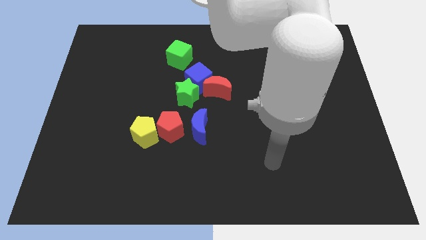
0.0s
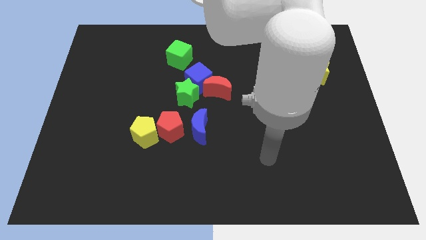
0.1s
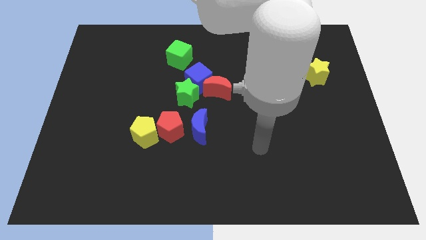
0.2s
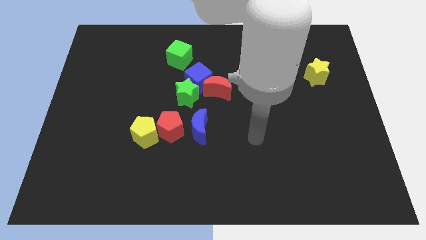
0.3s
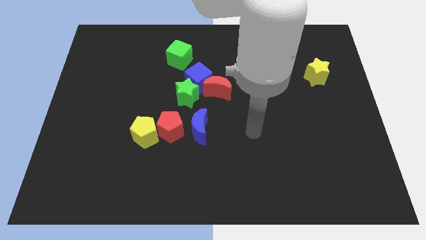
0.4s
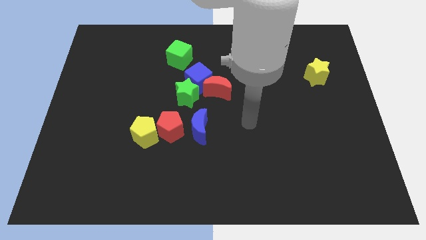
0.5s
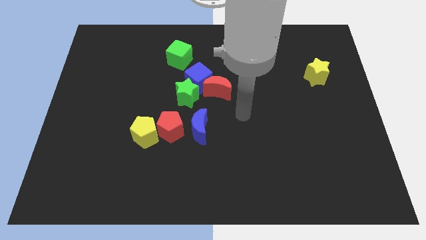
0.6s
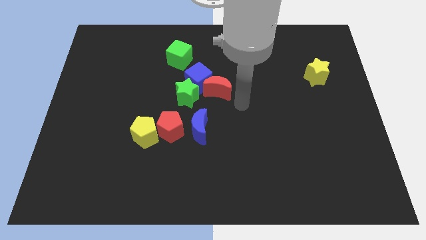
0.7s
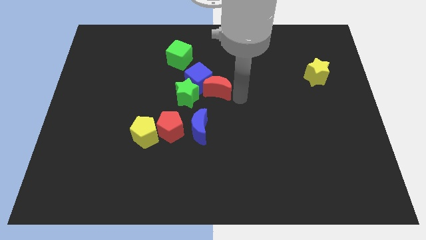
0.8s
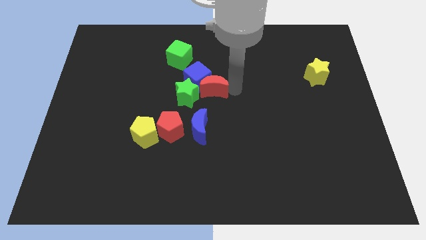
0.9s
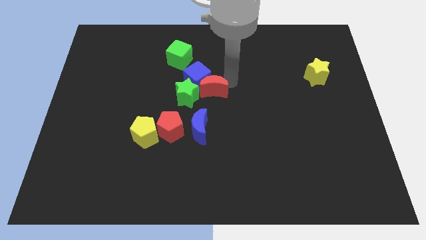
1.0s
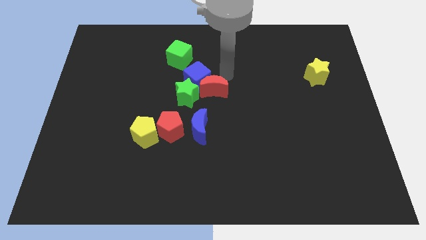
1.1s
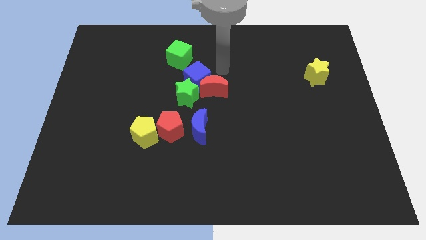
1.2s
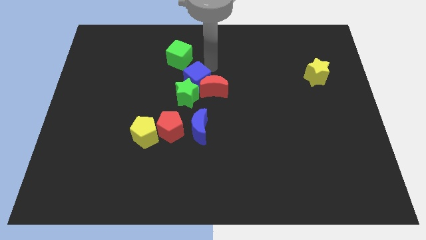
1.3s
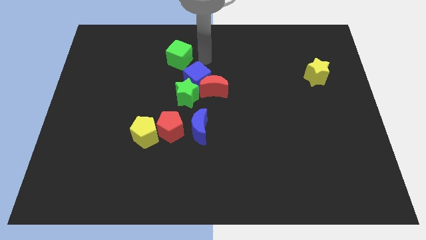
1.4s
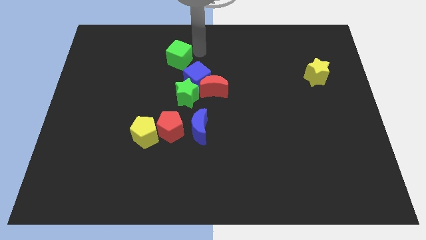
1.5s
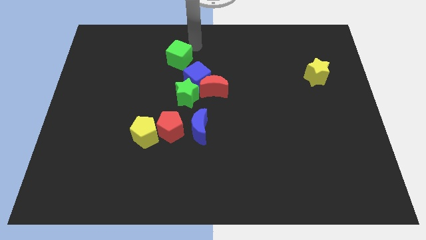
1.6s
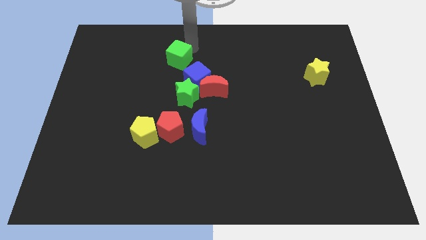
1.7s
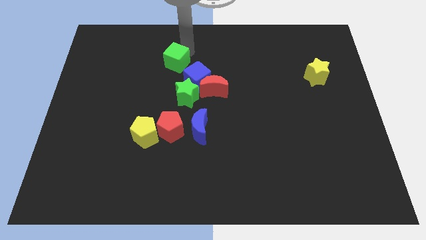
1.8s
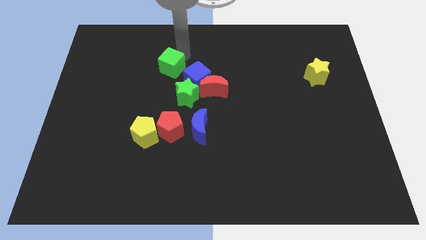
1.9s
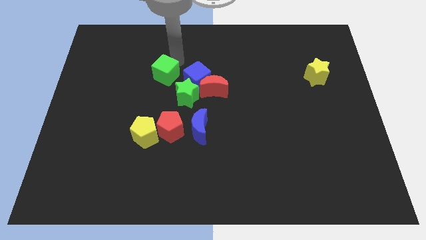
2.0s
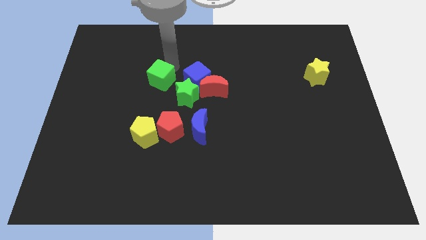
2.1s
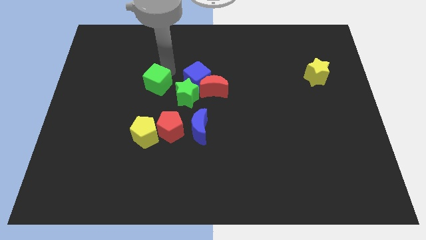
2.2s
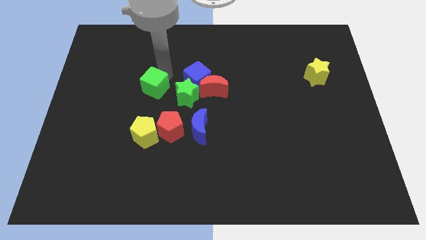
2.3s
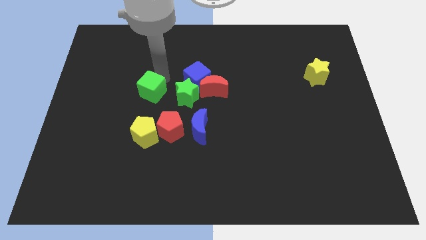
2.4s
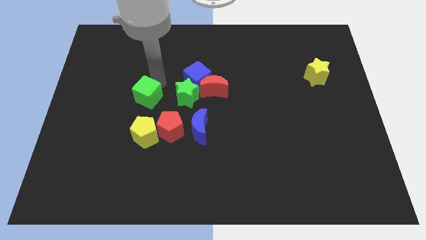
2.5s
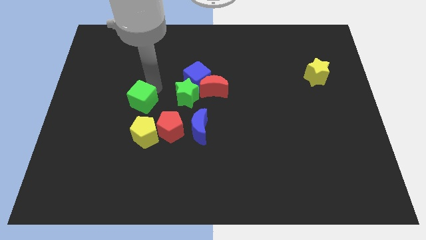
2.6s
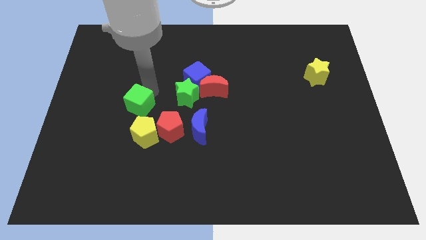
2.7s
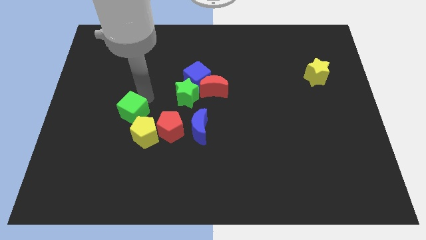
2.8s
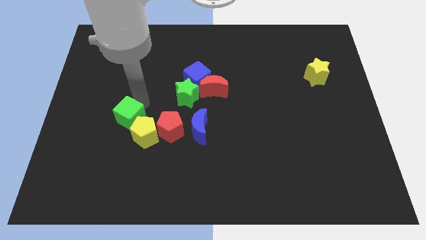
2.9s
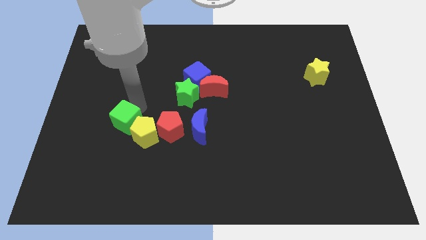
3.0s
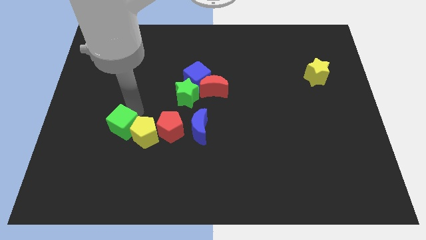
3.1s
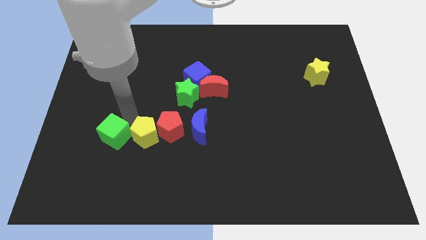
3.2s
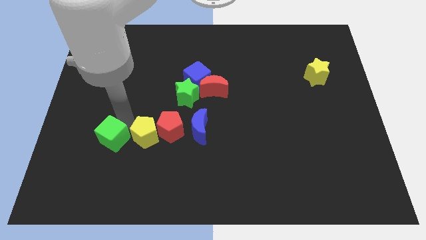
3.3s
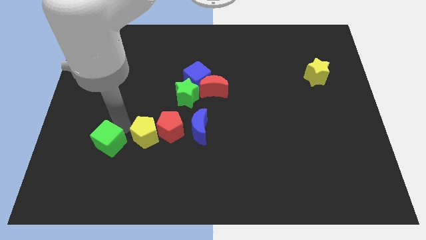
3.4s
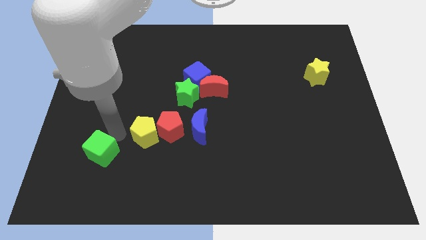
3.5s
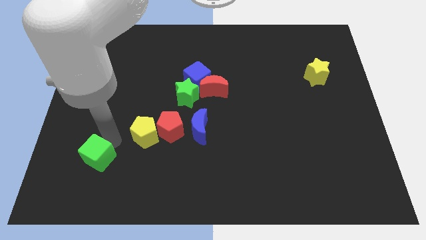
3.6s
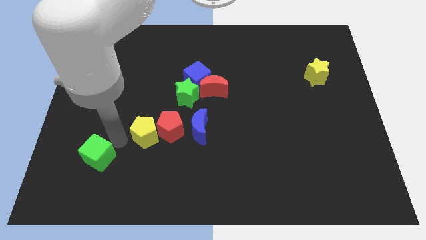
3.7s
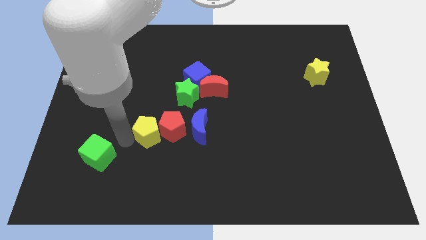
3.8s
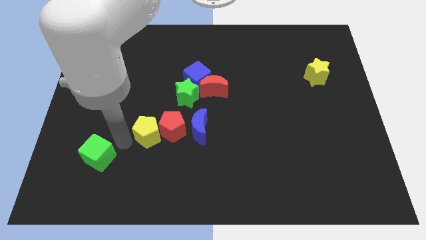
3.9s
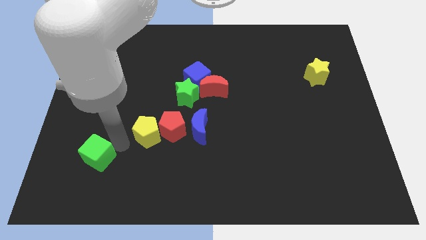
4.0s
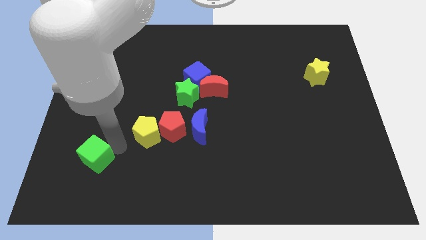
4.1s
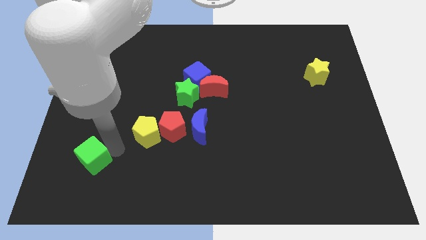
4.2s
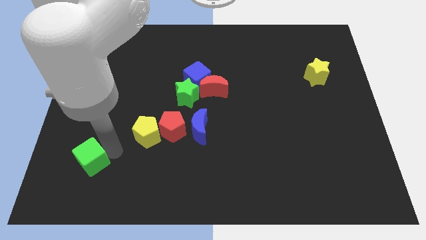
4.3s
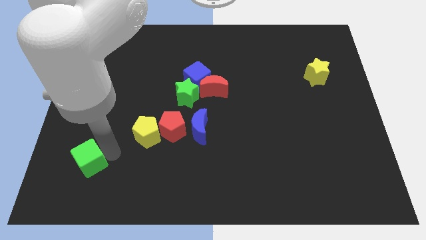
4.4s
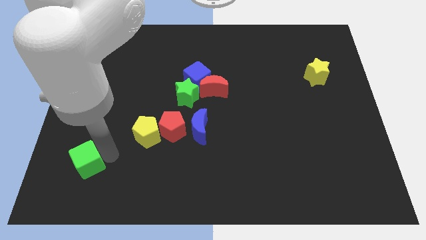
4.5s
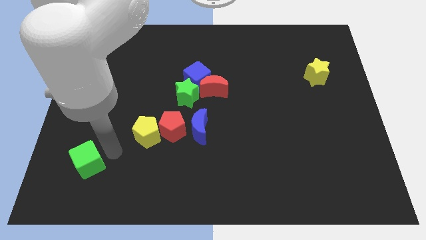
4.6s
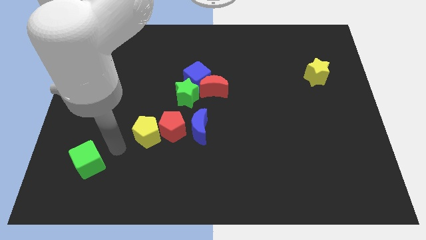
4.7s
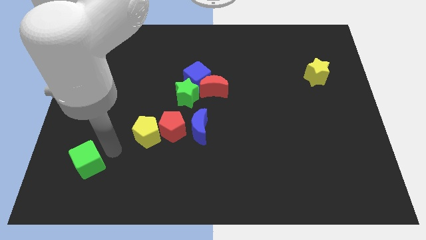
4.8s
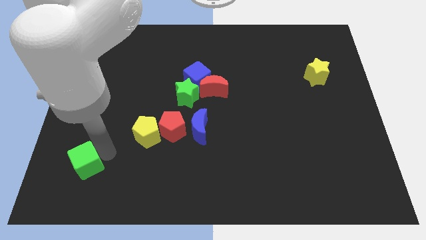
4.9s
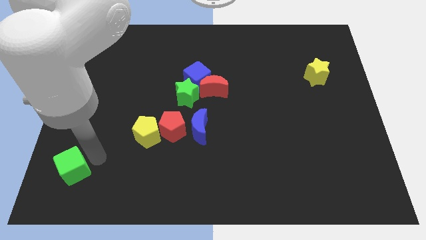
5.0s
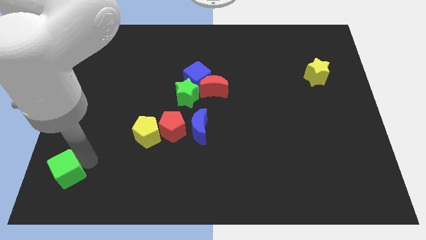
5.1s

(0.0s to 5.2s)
push the green cube to the bottom left of the board

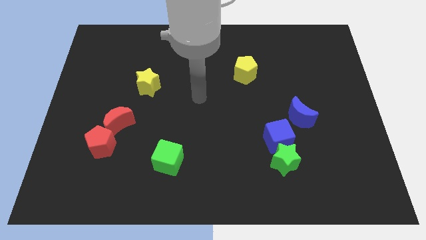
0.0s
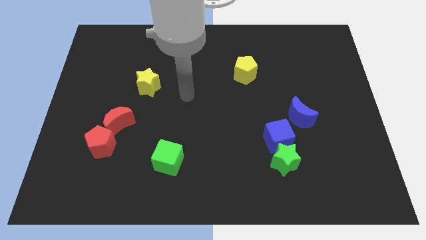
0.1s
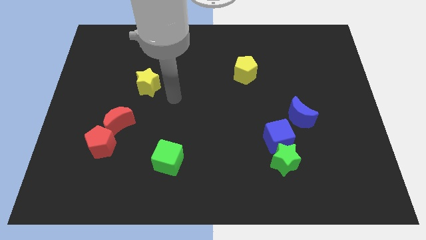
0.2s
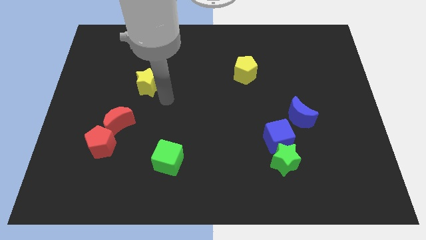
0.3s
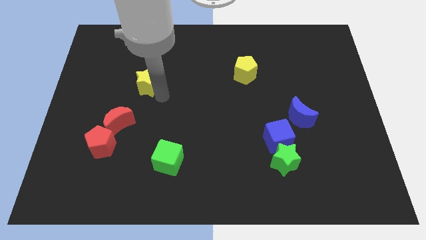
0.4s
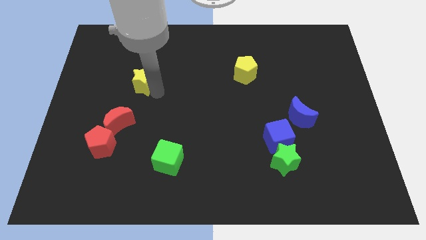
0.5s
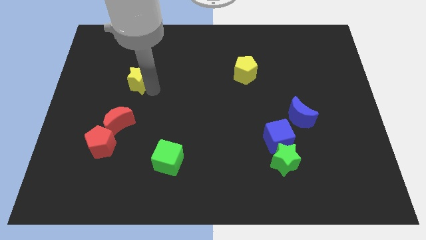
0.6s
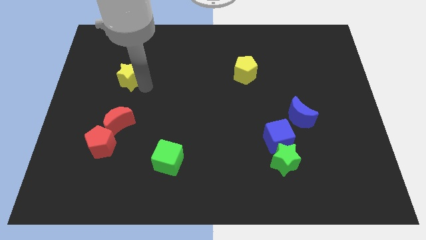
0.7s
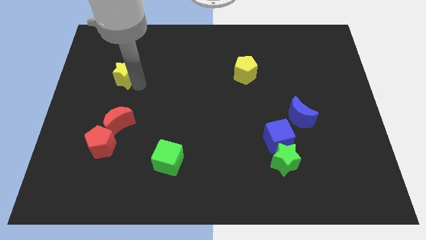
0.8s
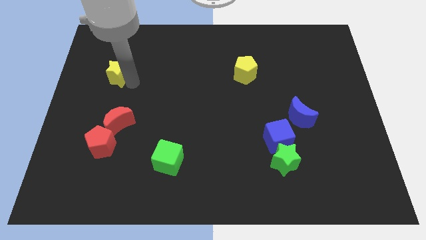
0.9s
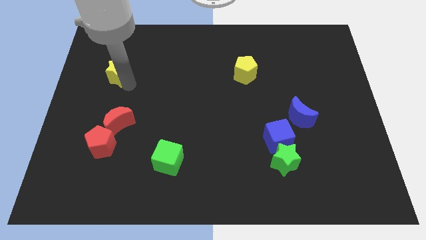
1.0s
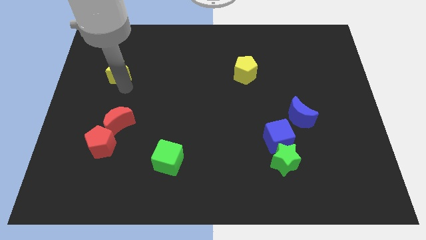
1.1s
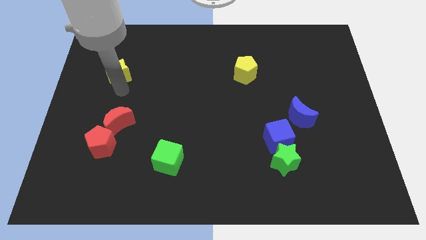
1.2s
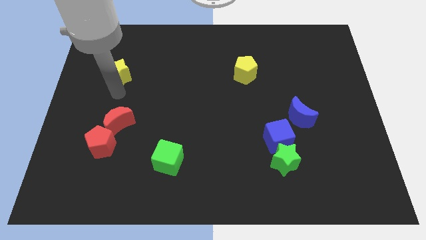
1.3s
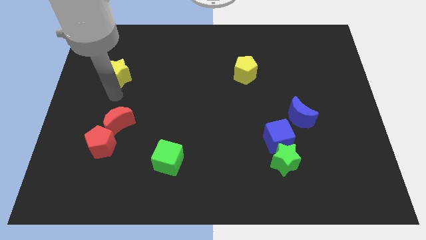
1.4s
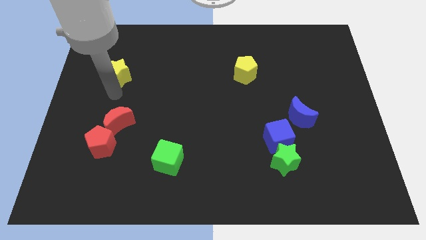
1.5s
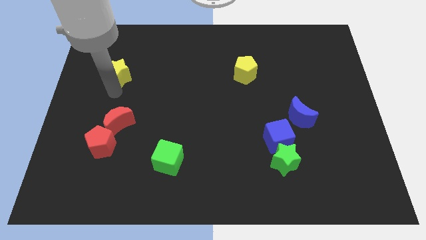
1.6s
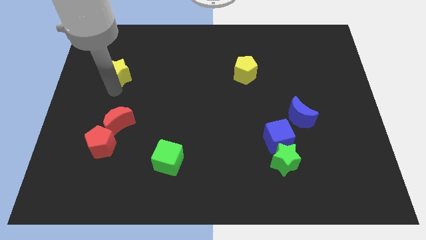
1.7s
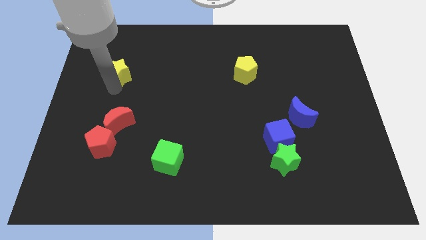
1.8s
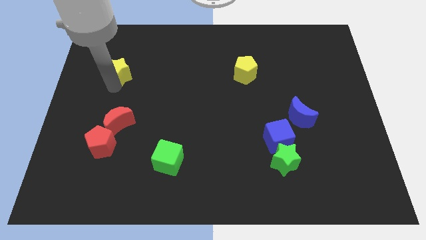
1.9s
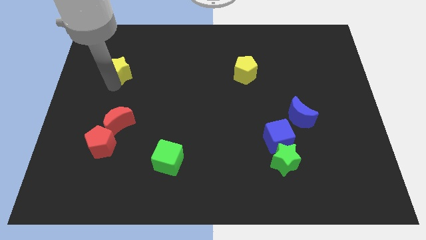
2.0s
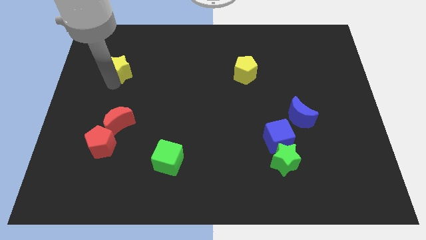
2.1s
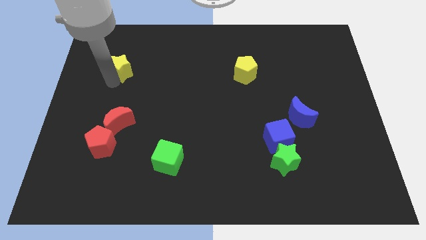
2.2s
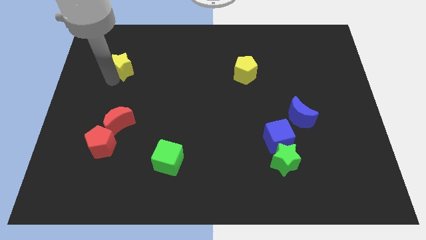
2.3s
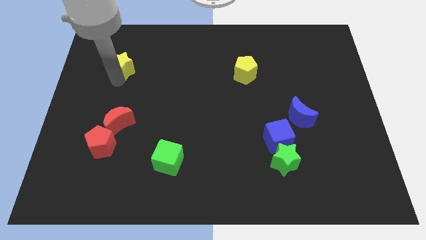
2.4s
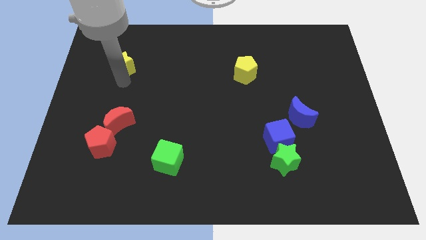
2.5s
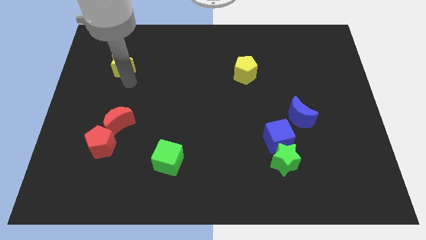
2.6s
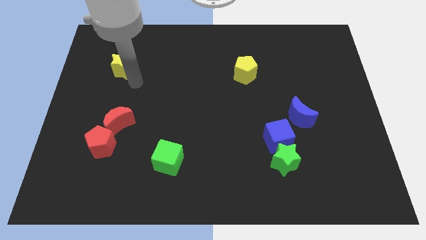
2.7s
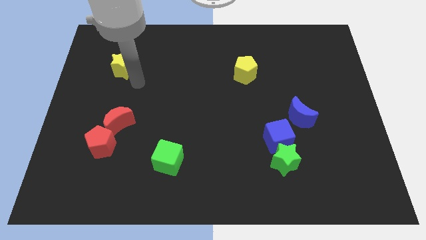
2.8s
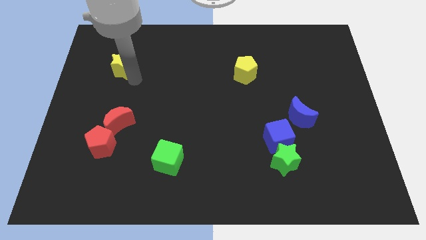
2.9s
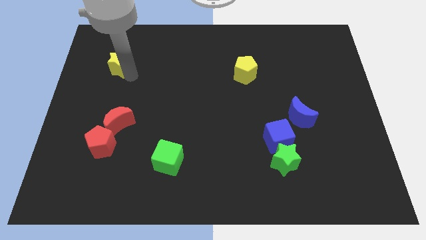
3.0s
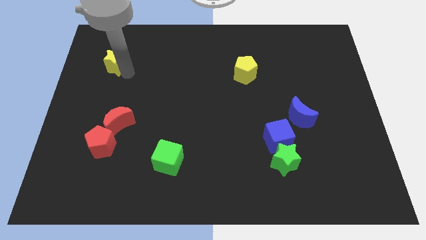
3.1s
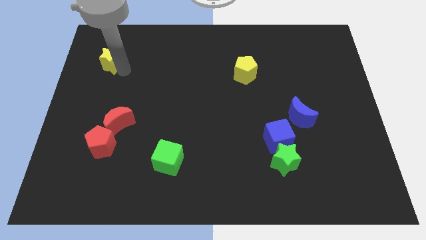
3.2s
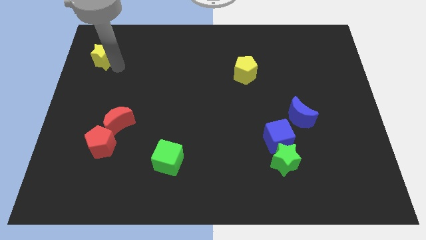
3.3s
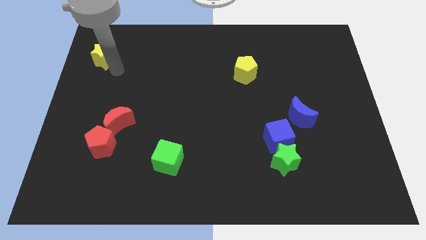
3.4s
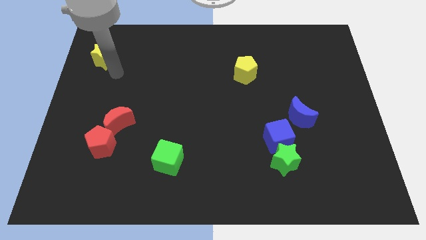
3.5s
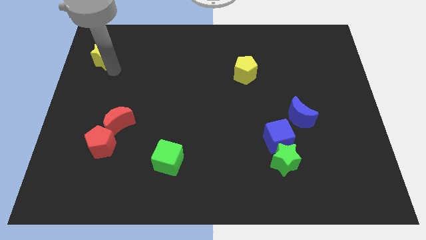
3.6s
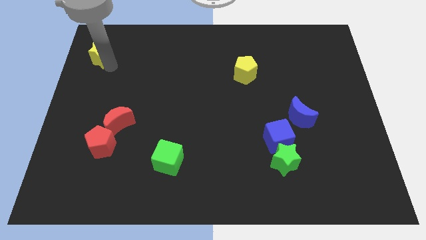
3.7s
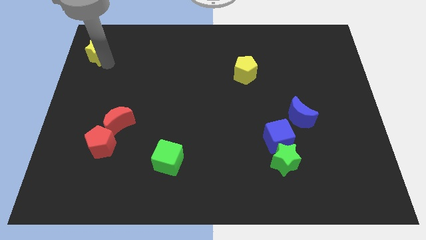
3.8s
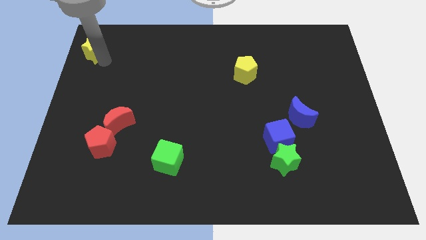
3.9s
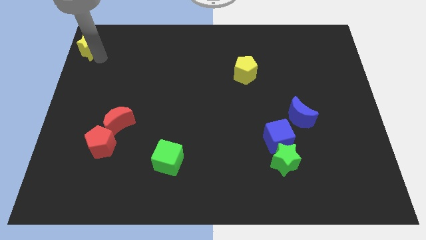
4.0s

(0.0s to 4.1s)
slide the yellow star to the top left corner
